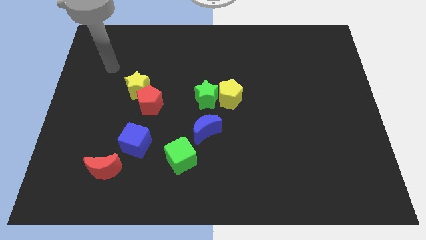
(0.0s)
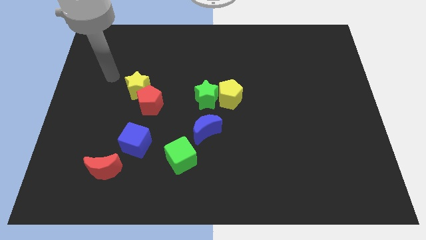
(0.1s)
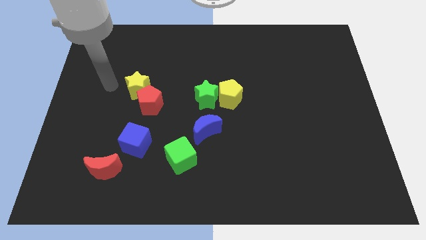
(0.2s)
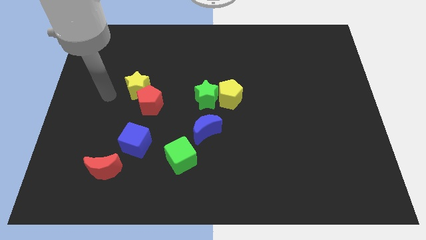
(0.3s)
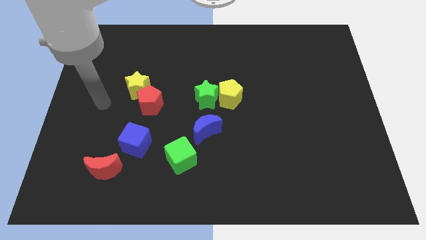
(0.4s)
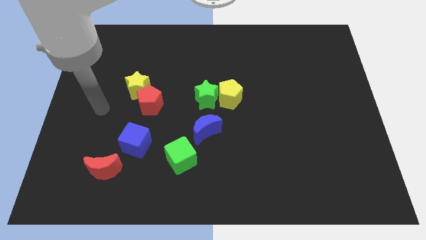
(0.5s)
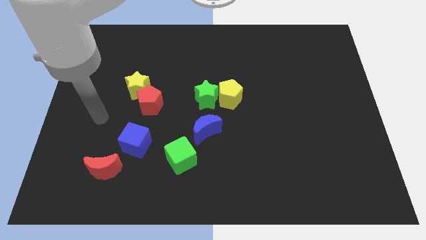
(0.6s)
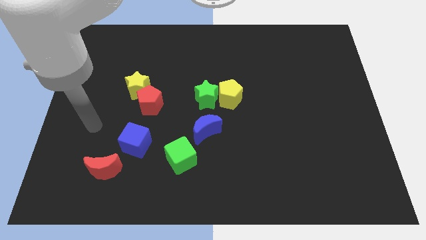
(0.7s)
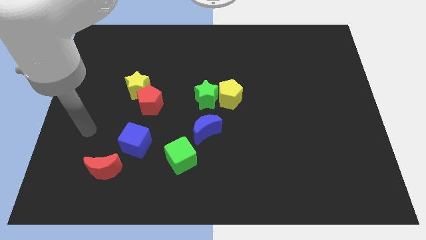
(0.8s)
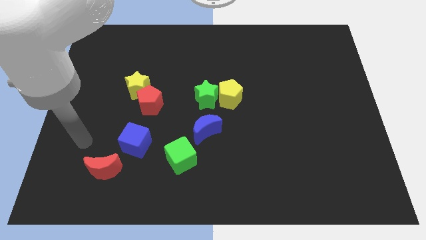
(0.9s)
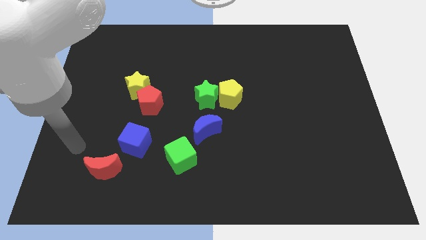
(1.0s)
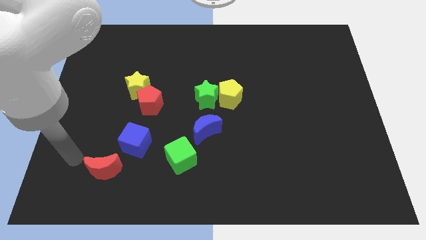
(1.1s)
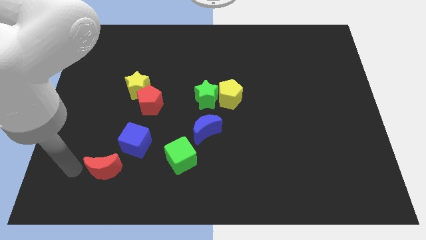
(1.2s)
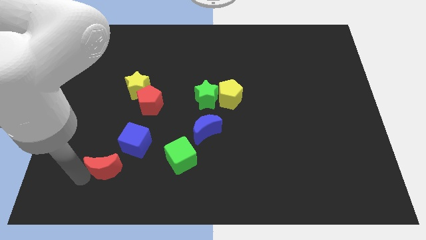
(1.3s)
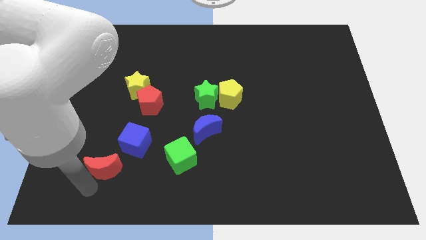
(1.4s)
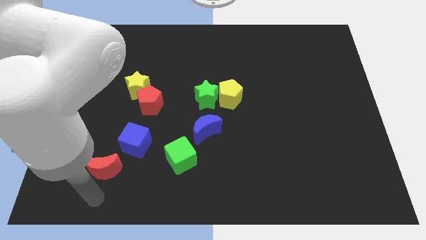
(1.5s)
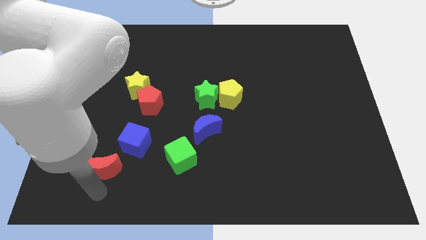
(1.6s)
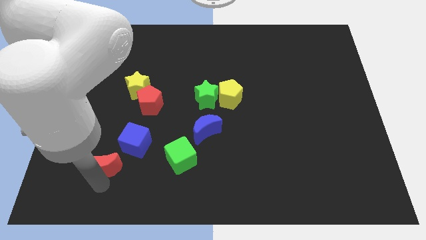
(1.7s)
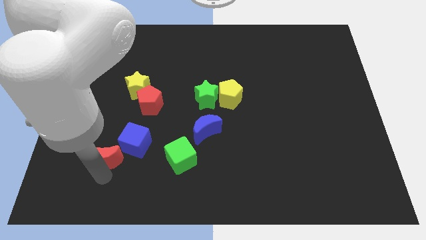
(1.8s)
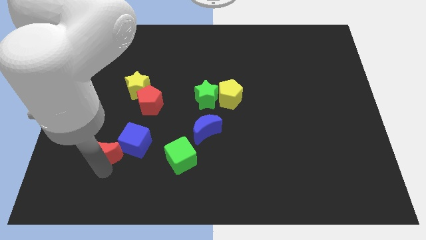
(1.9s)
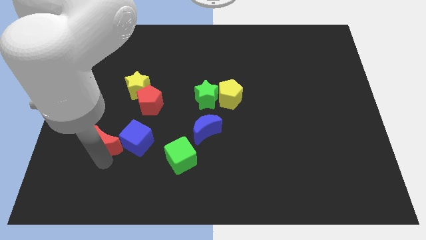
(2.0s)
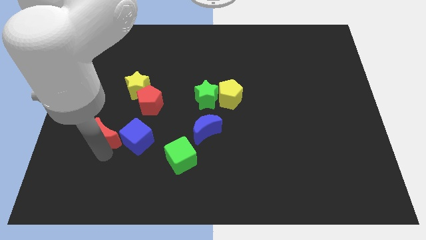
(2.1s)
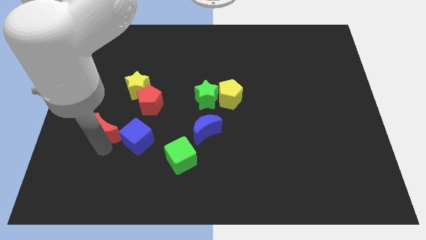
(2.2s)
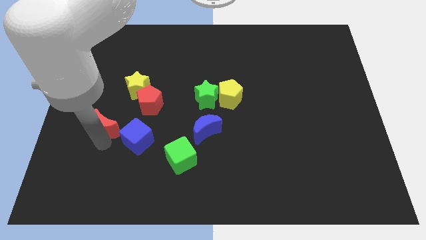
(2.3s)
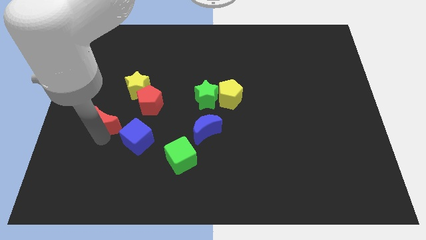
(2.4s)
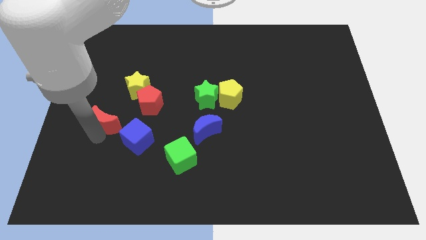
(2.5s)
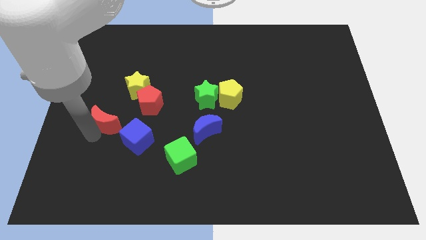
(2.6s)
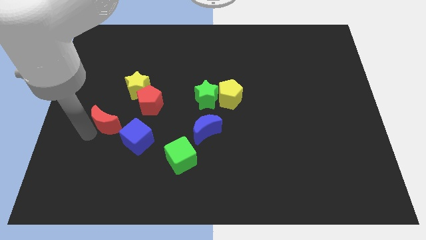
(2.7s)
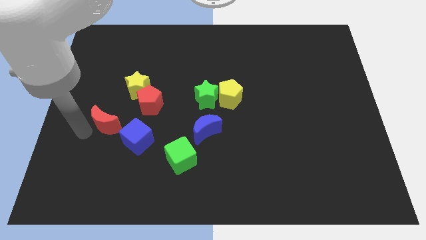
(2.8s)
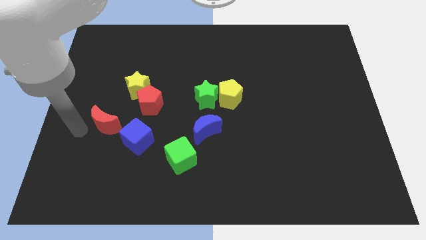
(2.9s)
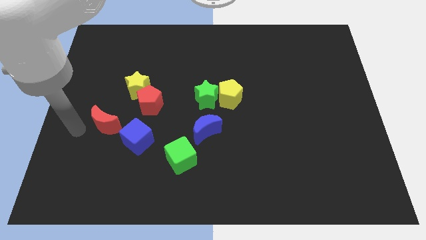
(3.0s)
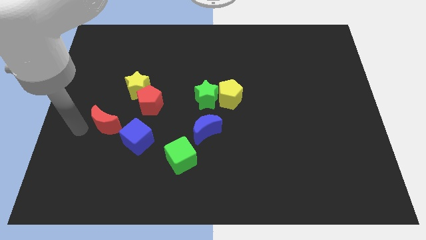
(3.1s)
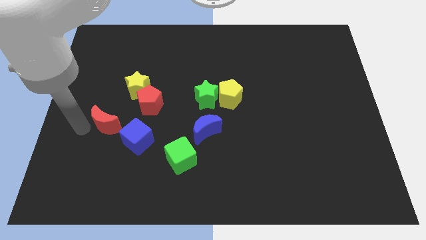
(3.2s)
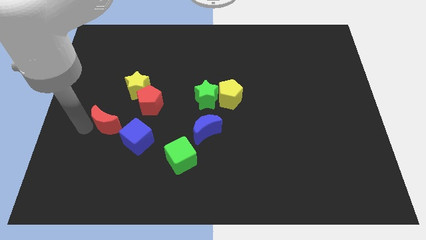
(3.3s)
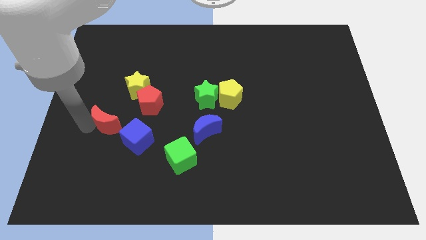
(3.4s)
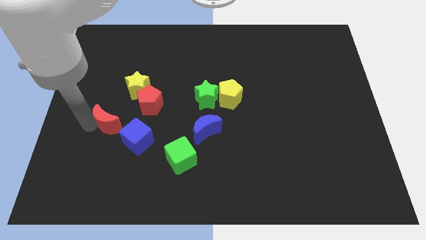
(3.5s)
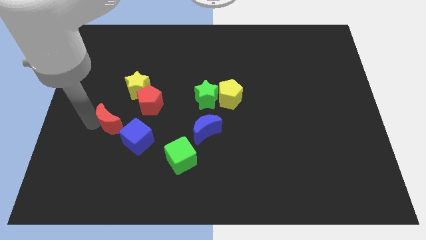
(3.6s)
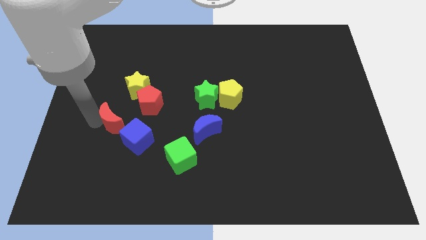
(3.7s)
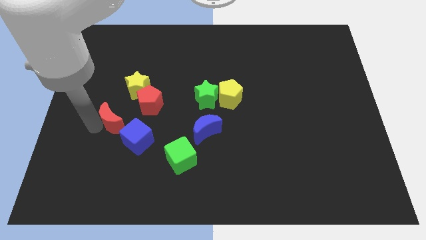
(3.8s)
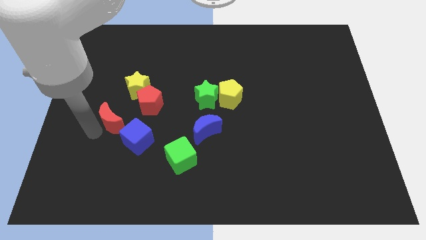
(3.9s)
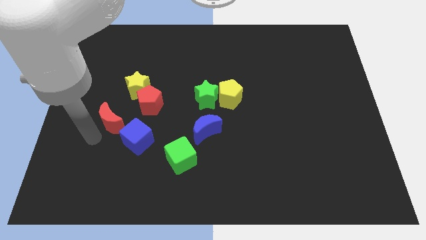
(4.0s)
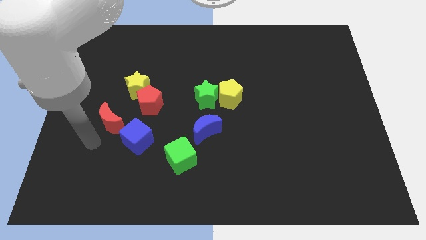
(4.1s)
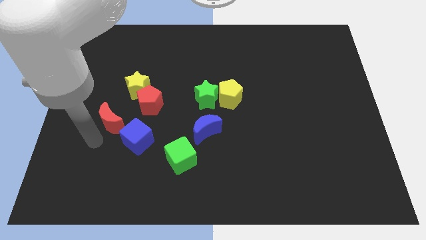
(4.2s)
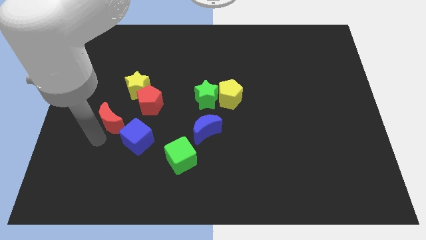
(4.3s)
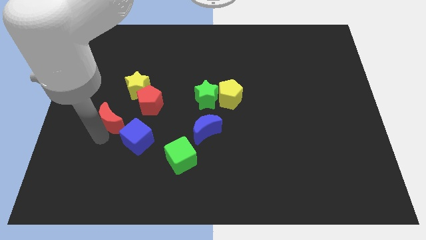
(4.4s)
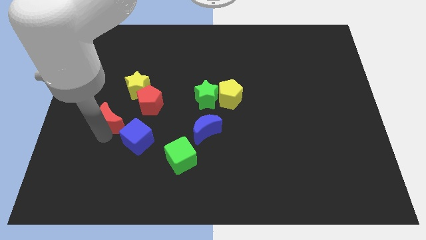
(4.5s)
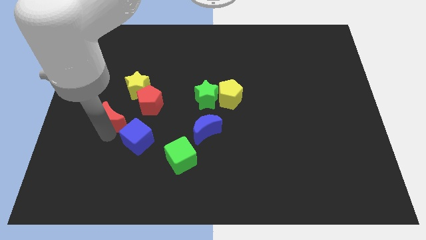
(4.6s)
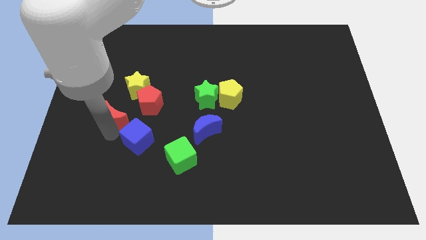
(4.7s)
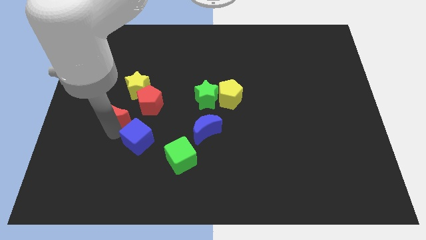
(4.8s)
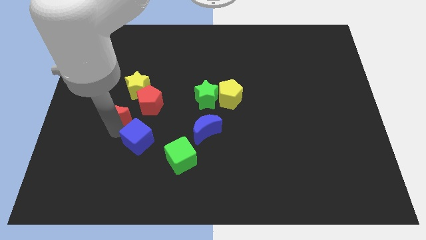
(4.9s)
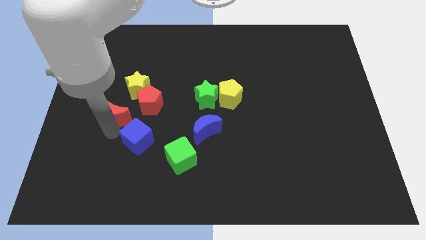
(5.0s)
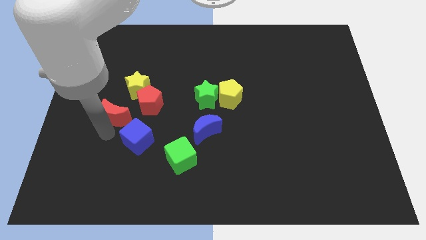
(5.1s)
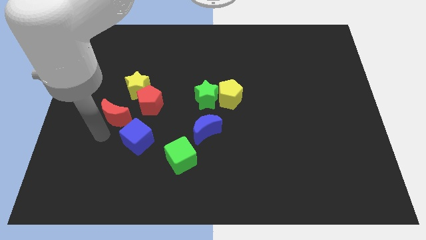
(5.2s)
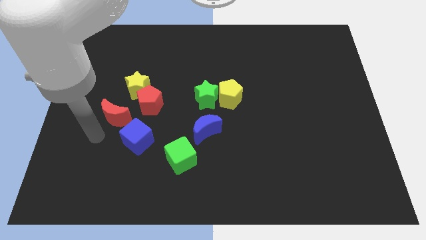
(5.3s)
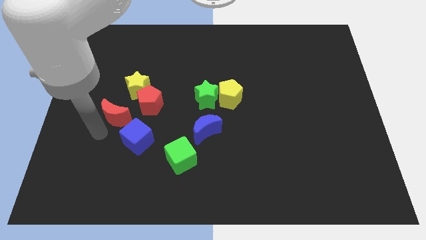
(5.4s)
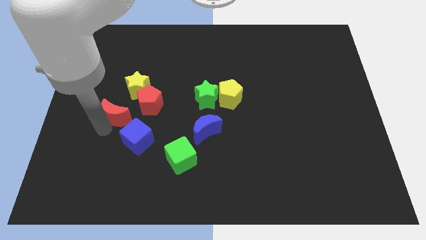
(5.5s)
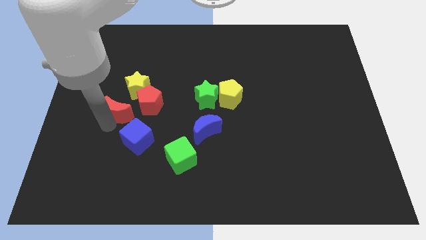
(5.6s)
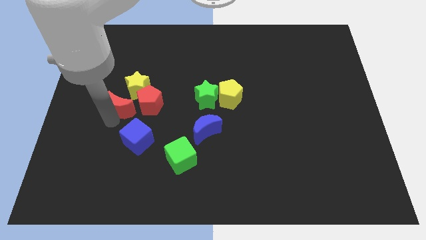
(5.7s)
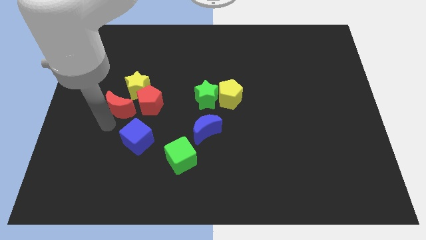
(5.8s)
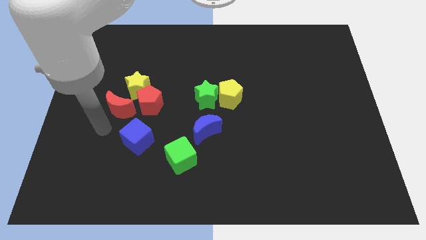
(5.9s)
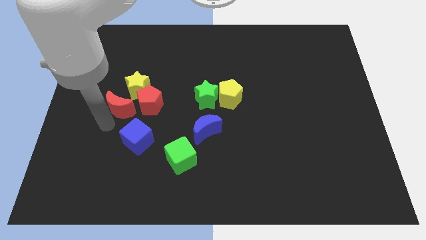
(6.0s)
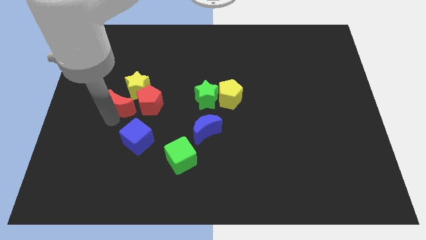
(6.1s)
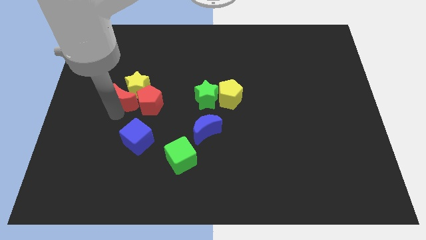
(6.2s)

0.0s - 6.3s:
move the red moon to the yellow star
